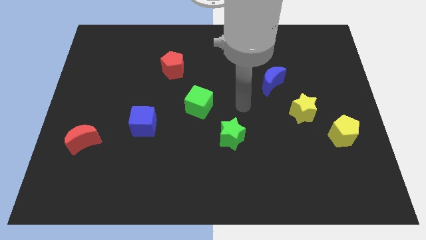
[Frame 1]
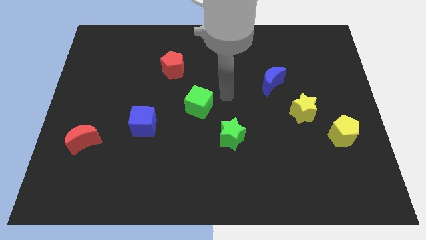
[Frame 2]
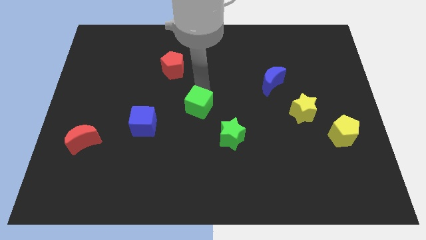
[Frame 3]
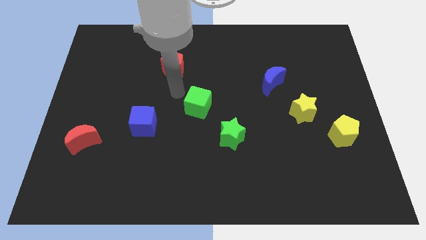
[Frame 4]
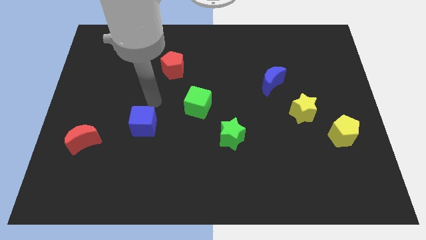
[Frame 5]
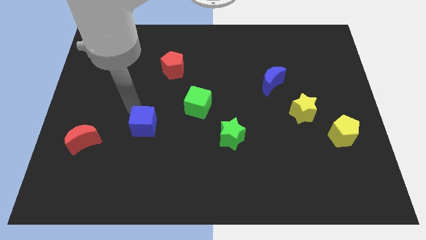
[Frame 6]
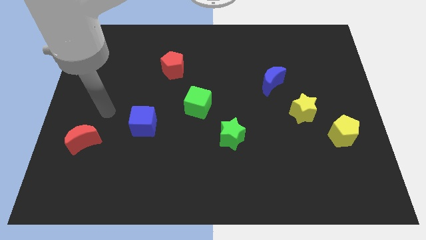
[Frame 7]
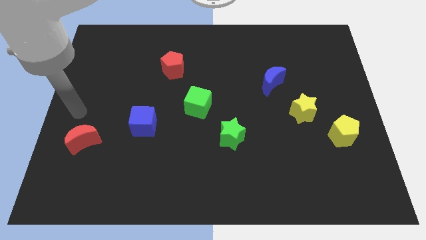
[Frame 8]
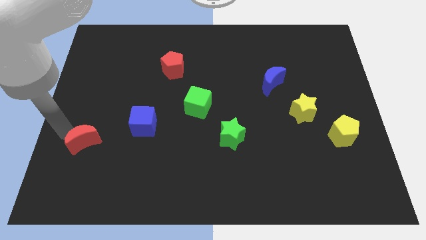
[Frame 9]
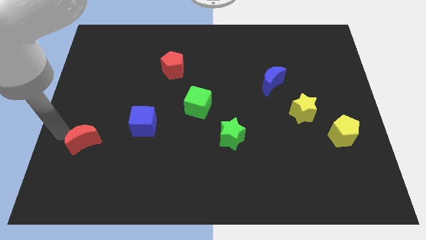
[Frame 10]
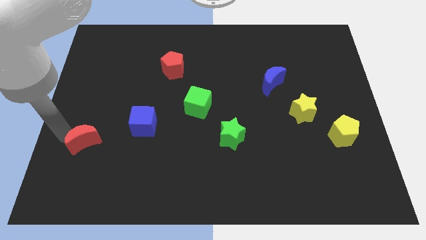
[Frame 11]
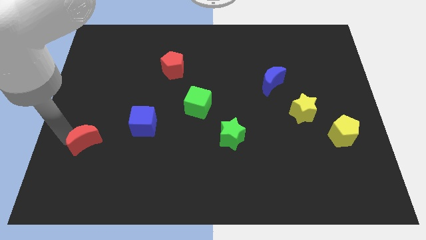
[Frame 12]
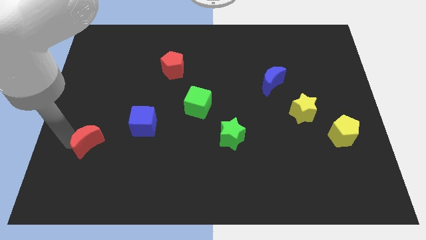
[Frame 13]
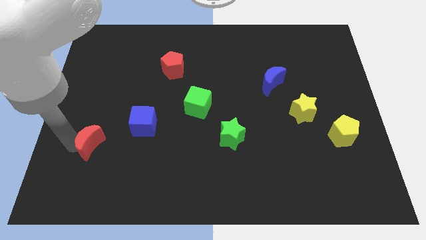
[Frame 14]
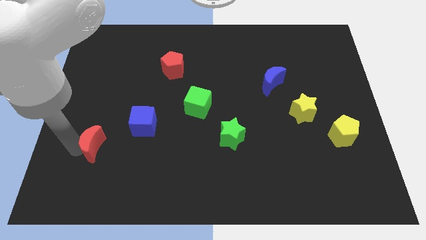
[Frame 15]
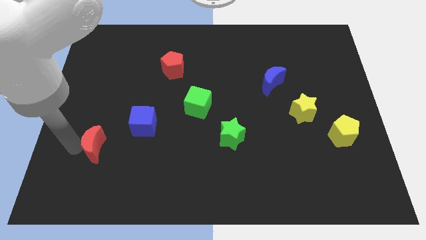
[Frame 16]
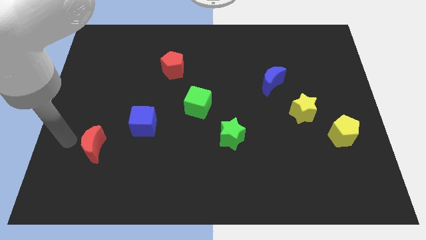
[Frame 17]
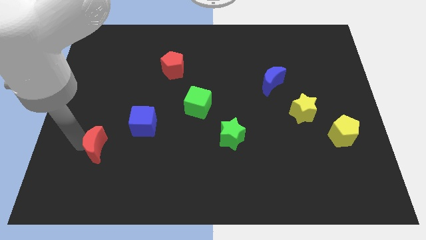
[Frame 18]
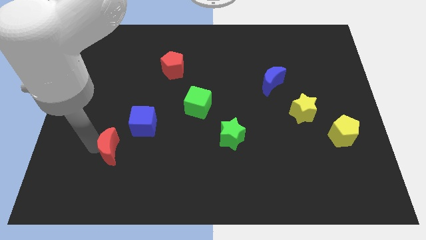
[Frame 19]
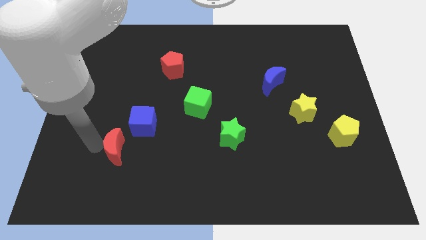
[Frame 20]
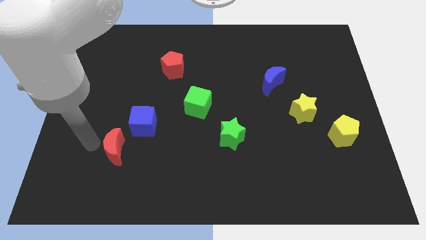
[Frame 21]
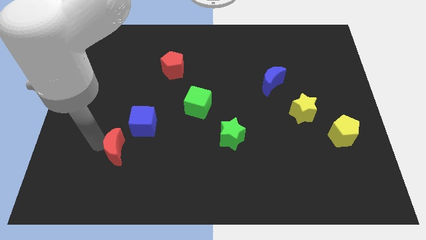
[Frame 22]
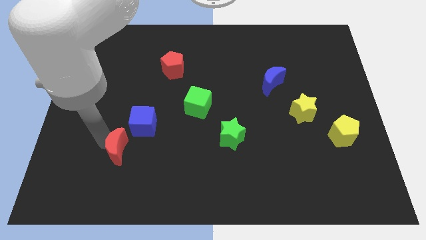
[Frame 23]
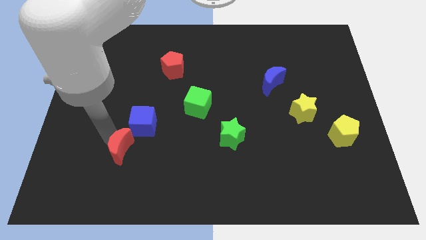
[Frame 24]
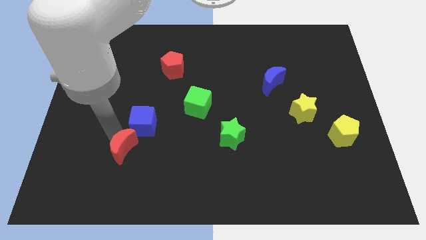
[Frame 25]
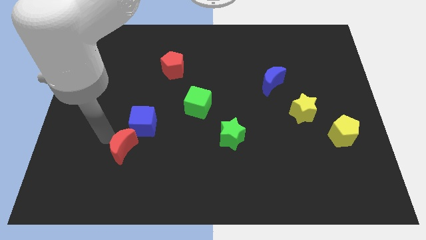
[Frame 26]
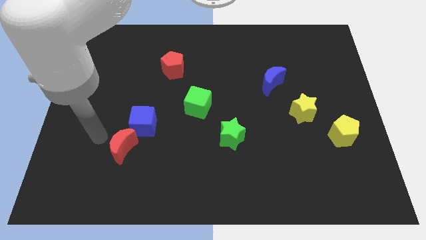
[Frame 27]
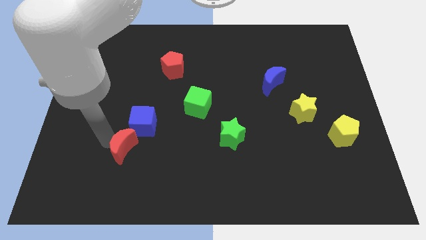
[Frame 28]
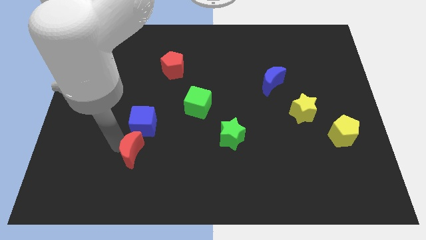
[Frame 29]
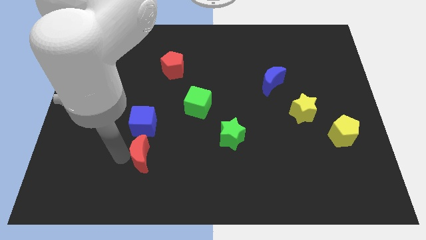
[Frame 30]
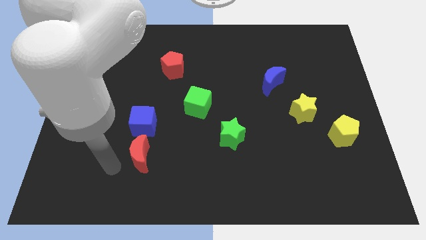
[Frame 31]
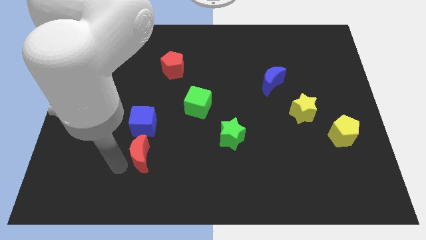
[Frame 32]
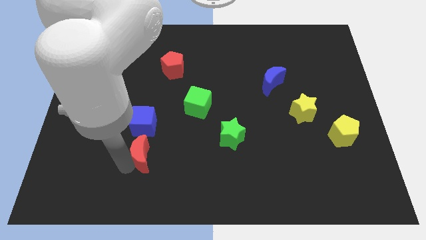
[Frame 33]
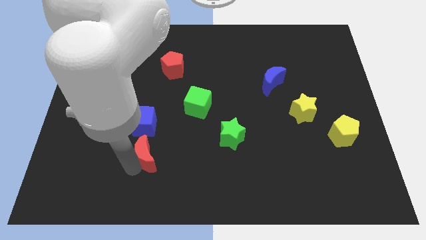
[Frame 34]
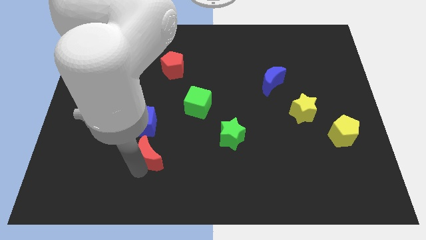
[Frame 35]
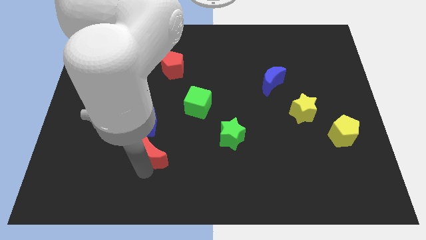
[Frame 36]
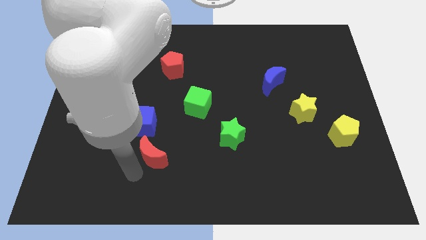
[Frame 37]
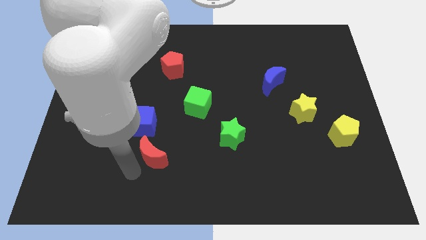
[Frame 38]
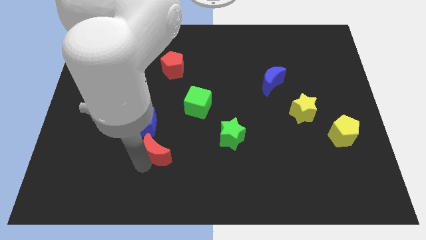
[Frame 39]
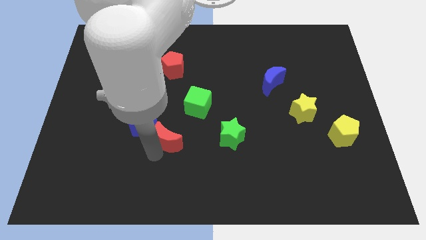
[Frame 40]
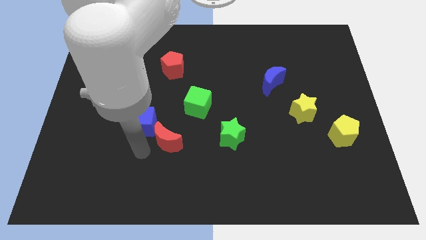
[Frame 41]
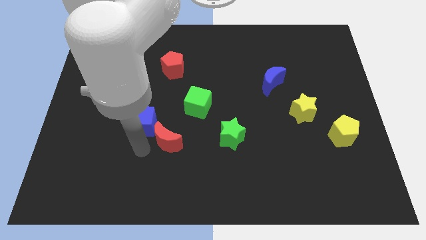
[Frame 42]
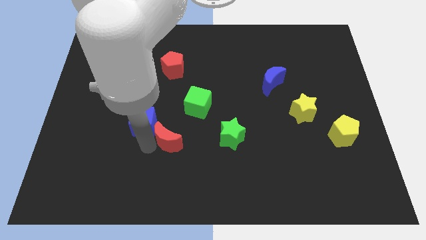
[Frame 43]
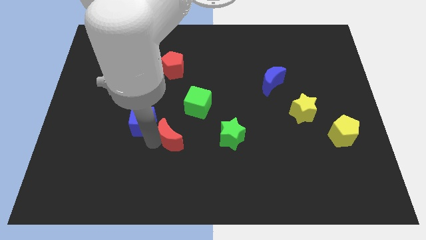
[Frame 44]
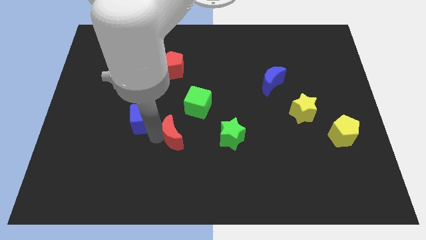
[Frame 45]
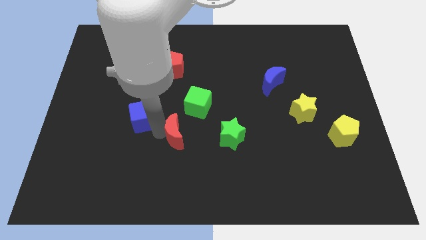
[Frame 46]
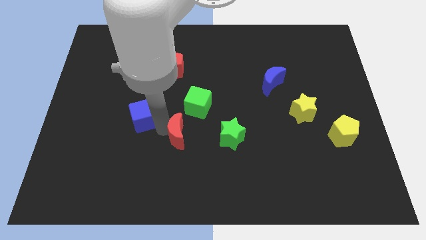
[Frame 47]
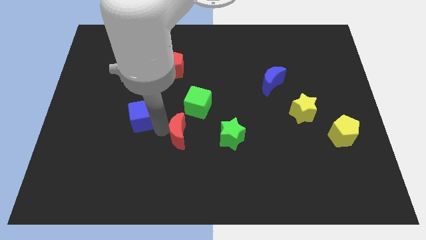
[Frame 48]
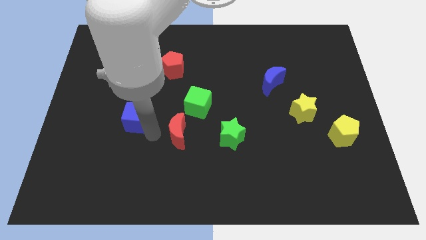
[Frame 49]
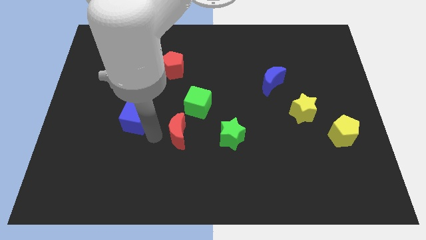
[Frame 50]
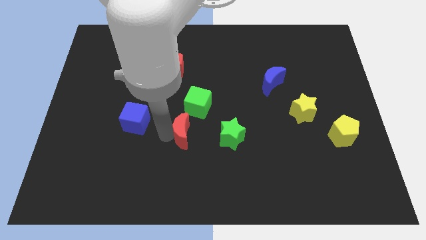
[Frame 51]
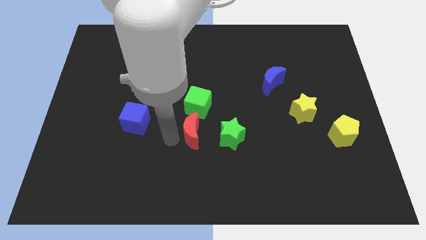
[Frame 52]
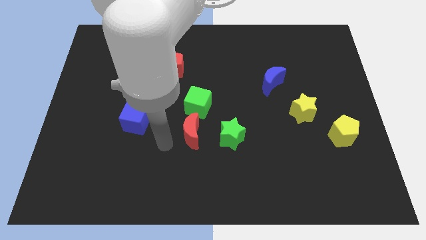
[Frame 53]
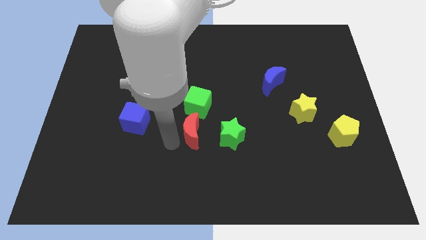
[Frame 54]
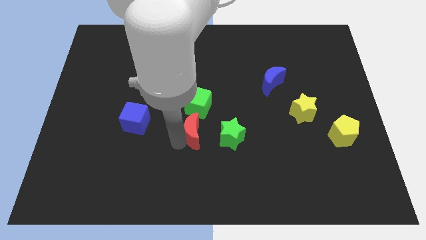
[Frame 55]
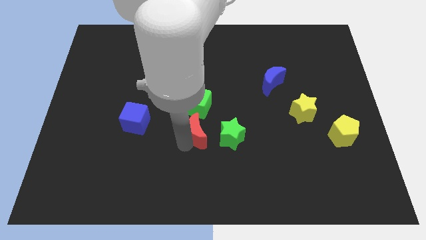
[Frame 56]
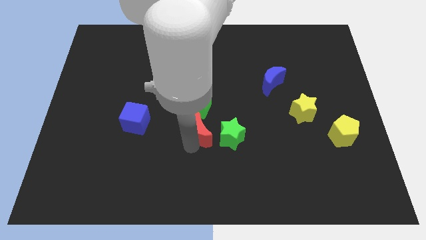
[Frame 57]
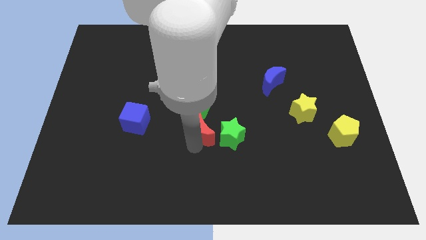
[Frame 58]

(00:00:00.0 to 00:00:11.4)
put the red moon diagonally down and to the right of the green cube

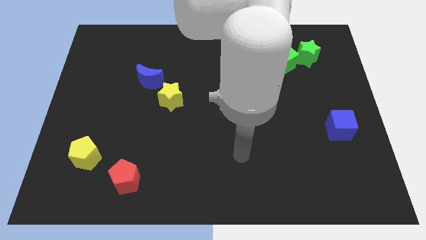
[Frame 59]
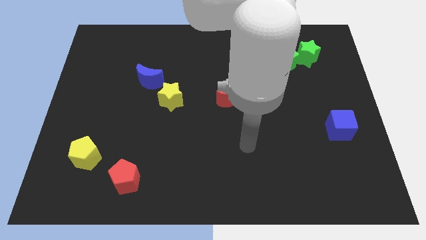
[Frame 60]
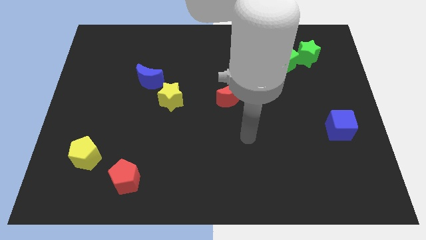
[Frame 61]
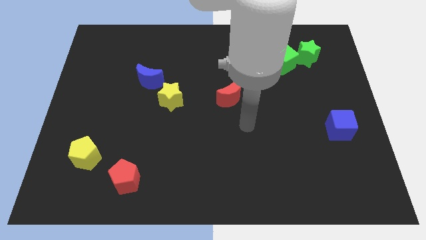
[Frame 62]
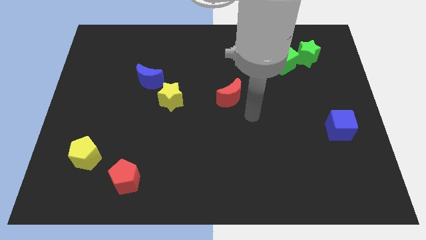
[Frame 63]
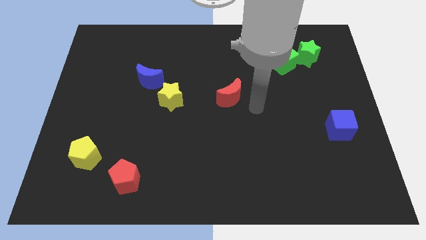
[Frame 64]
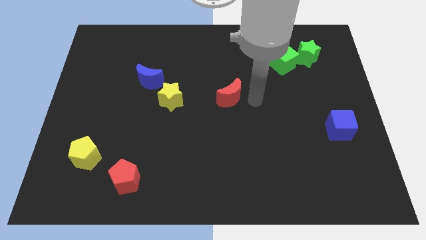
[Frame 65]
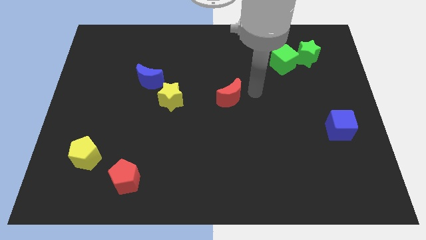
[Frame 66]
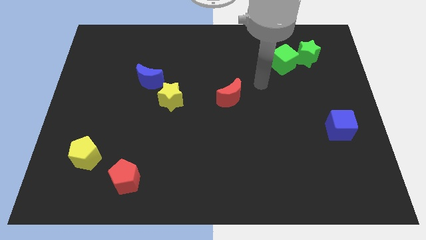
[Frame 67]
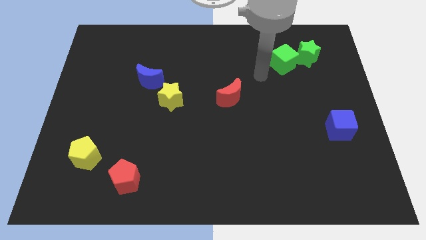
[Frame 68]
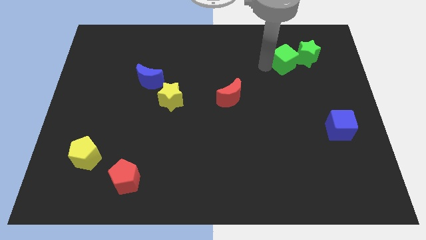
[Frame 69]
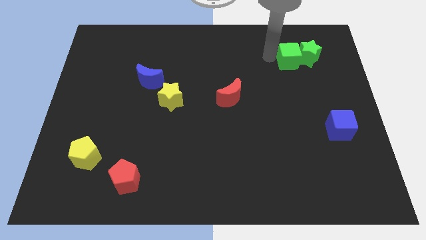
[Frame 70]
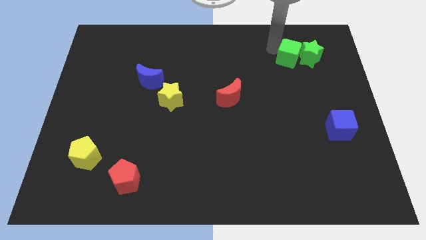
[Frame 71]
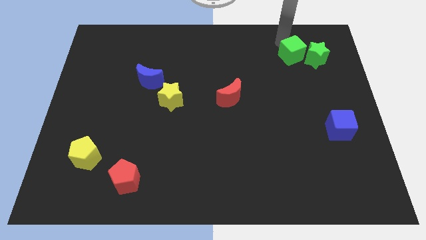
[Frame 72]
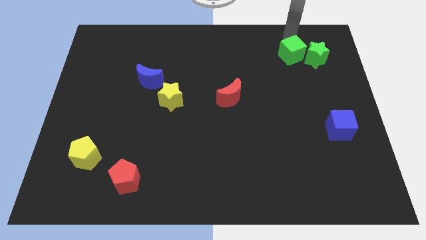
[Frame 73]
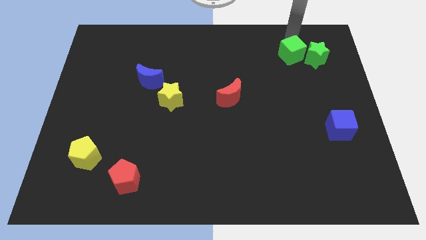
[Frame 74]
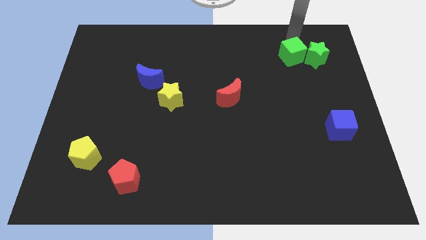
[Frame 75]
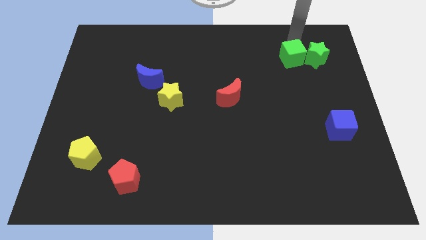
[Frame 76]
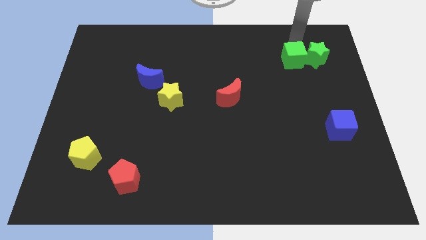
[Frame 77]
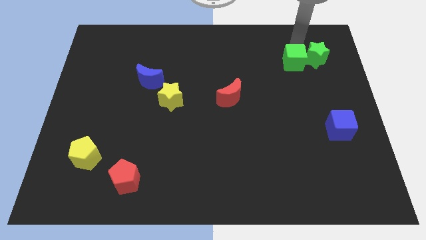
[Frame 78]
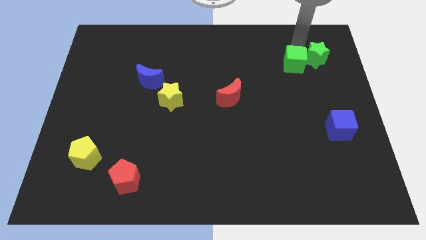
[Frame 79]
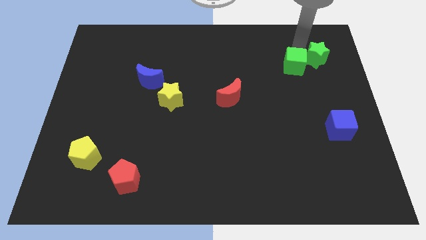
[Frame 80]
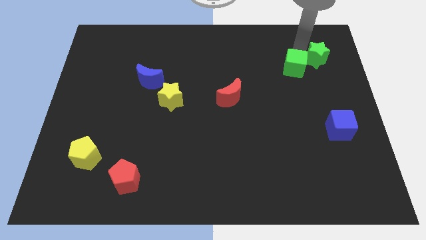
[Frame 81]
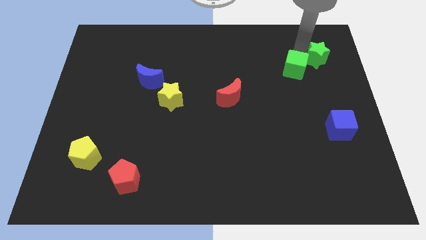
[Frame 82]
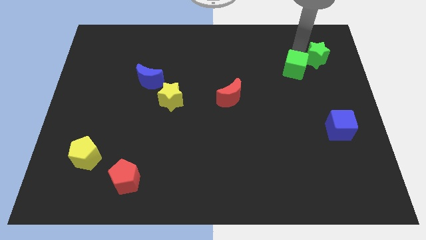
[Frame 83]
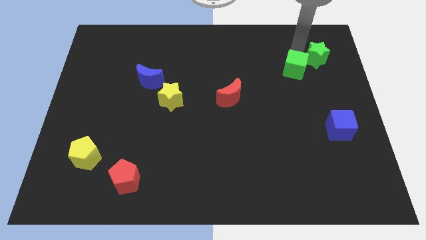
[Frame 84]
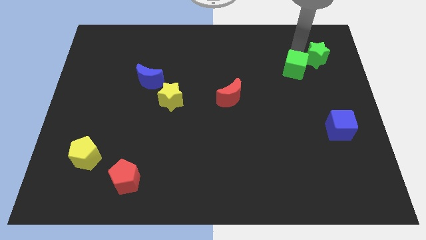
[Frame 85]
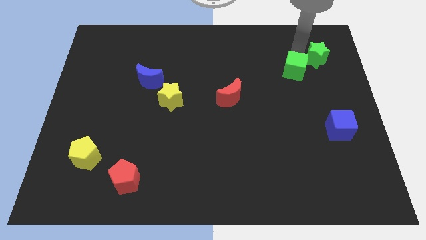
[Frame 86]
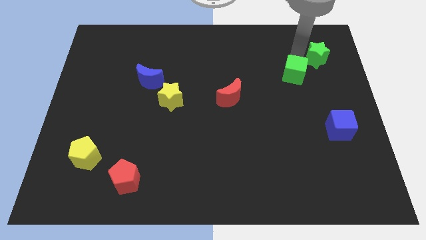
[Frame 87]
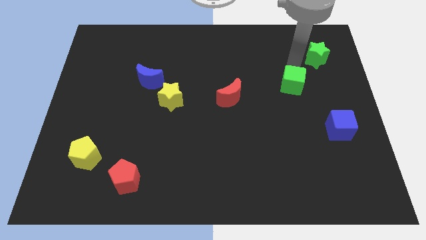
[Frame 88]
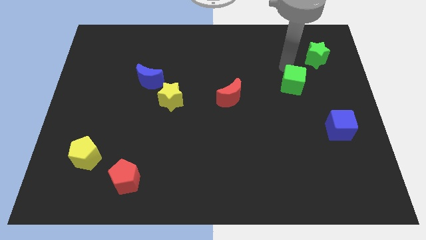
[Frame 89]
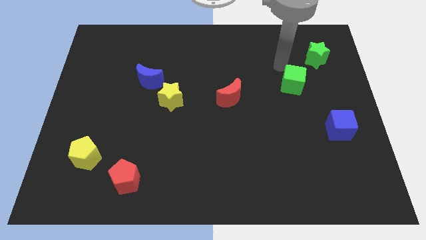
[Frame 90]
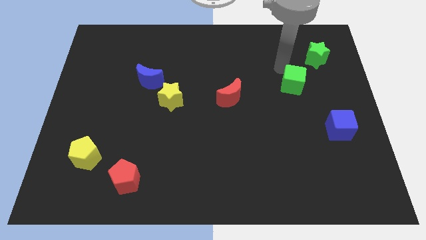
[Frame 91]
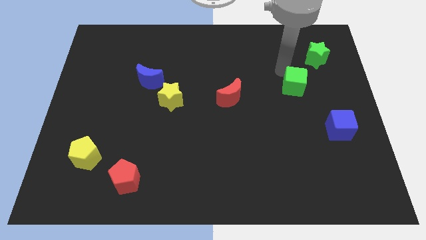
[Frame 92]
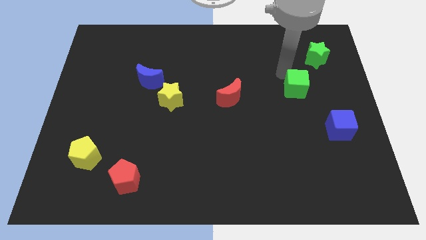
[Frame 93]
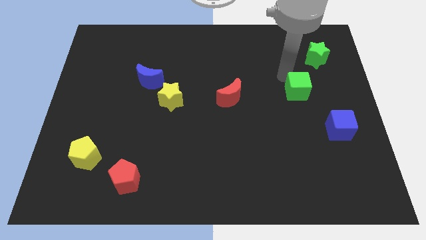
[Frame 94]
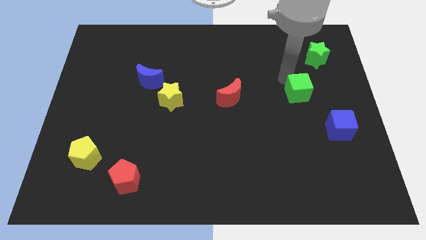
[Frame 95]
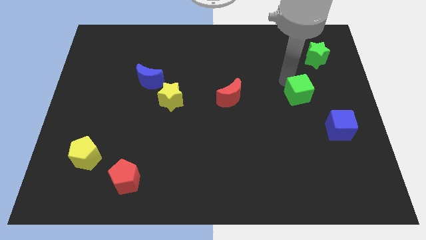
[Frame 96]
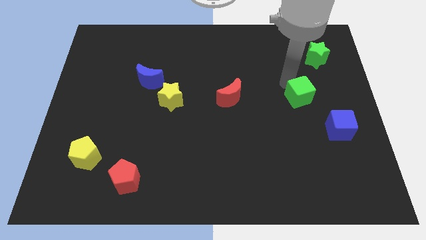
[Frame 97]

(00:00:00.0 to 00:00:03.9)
move the green cube diagonally up and to the left of the blue cube
